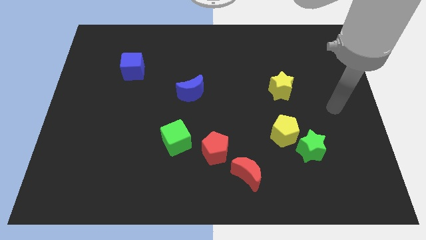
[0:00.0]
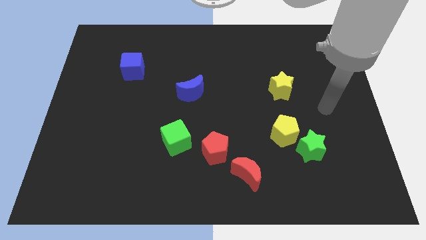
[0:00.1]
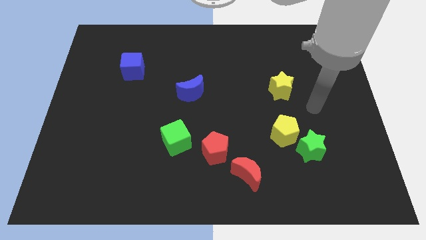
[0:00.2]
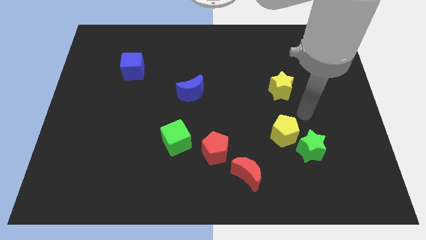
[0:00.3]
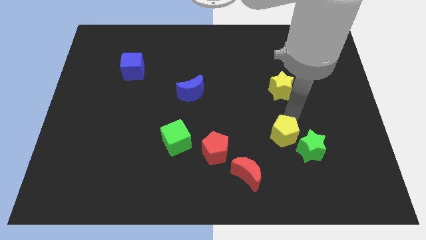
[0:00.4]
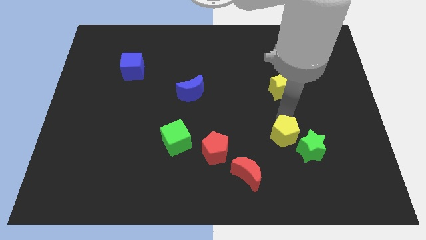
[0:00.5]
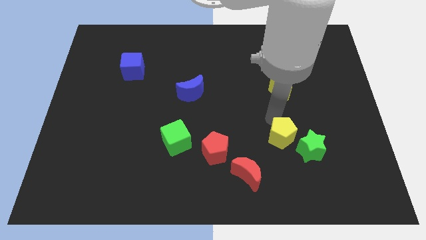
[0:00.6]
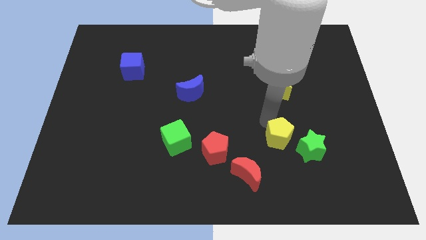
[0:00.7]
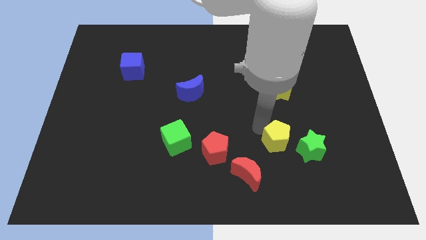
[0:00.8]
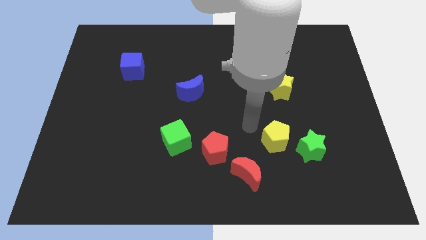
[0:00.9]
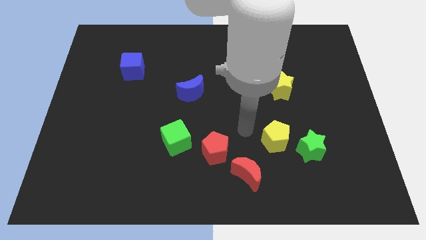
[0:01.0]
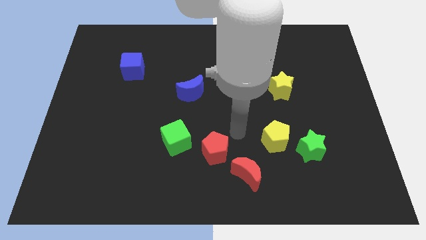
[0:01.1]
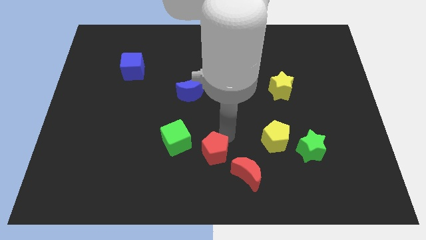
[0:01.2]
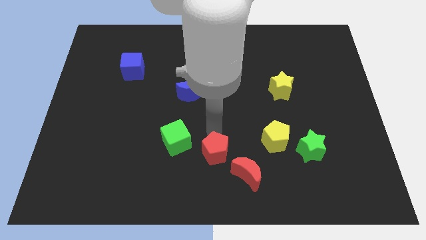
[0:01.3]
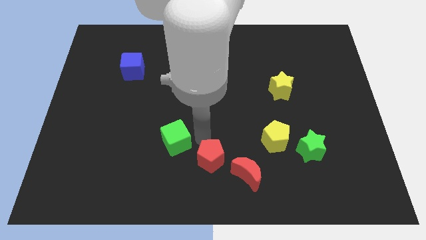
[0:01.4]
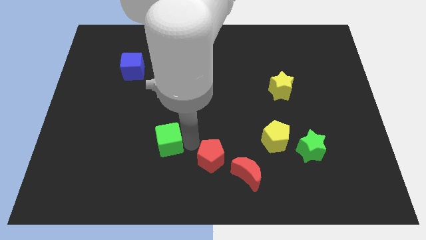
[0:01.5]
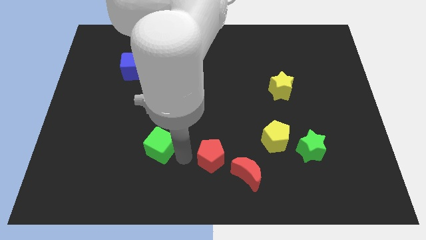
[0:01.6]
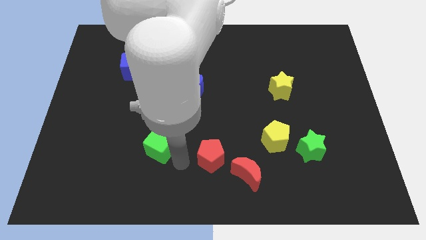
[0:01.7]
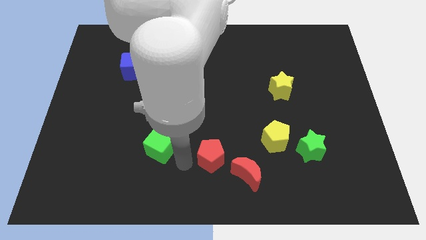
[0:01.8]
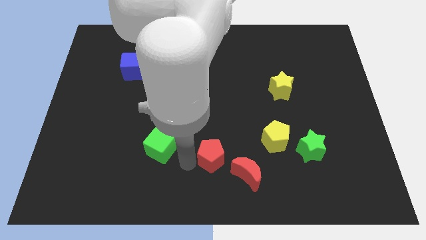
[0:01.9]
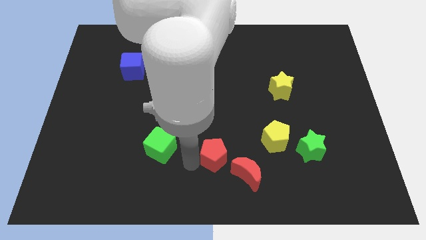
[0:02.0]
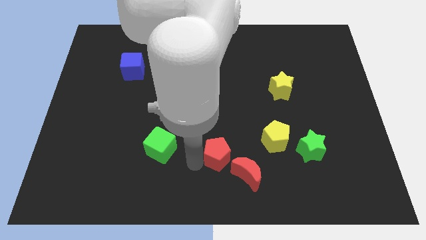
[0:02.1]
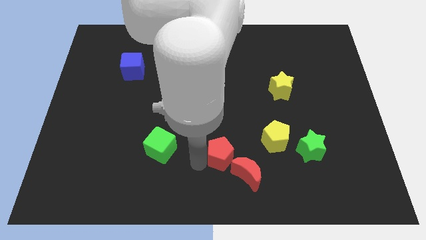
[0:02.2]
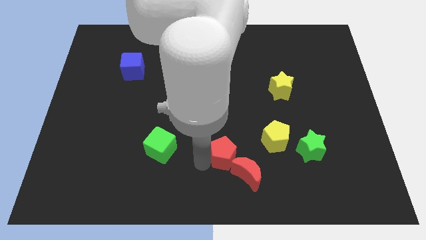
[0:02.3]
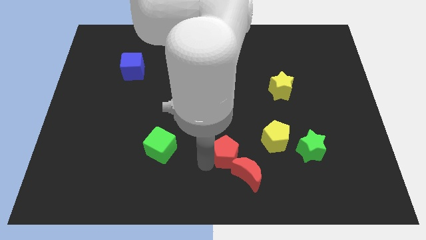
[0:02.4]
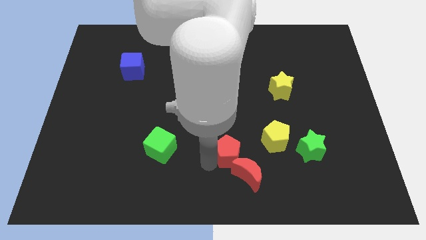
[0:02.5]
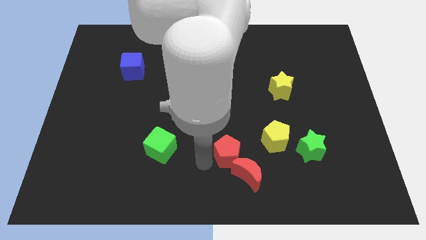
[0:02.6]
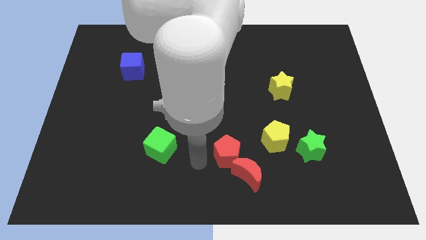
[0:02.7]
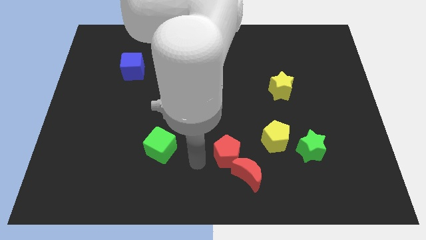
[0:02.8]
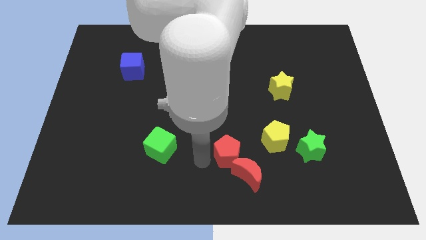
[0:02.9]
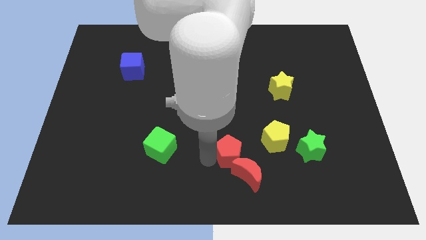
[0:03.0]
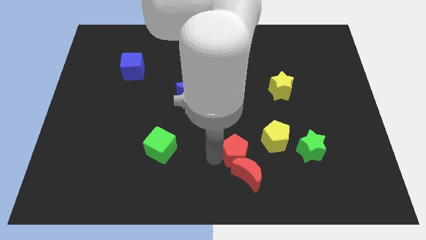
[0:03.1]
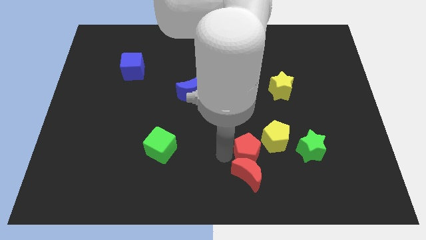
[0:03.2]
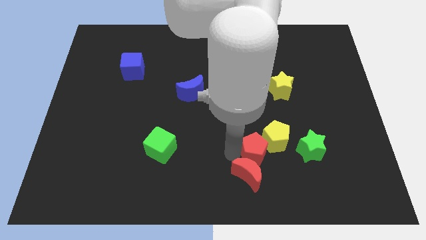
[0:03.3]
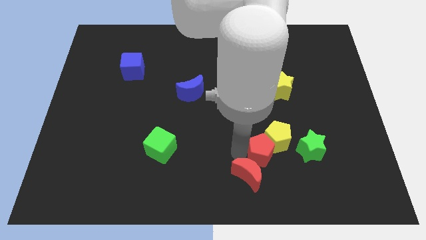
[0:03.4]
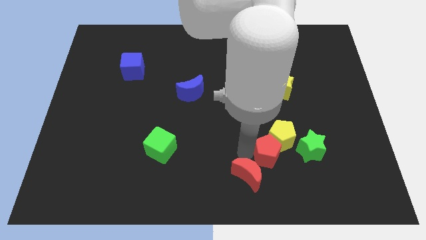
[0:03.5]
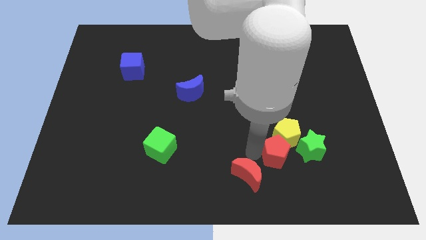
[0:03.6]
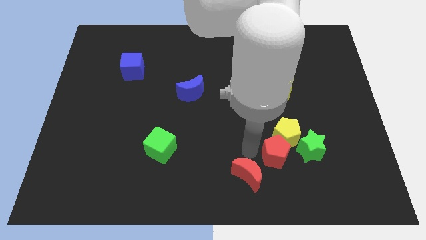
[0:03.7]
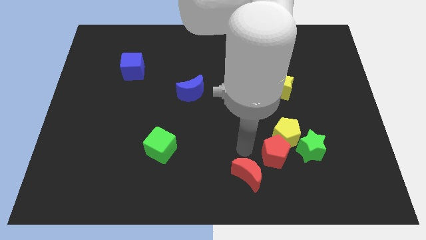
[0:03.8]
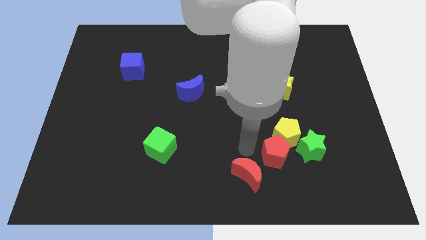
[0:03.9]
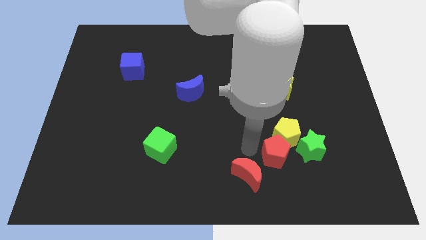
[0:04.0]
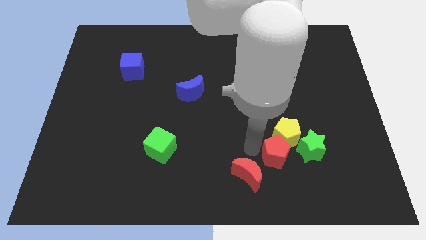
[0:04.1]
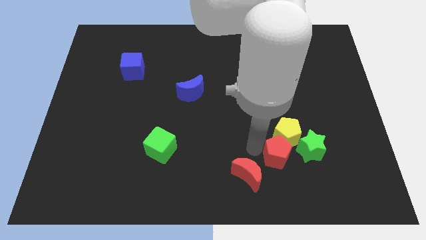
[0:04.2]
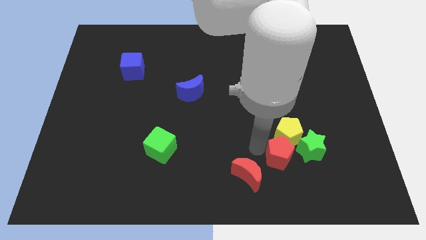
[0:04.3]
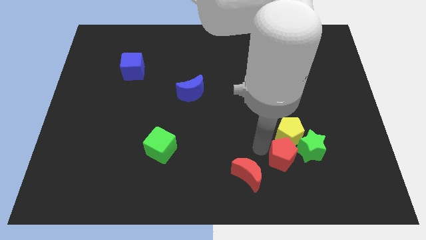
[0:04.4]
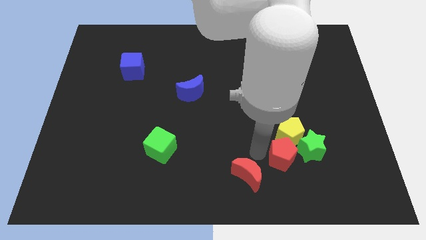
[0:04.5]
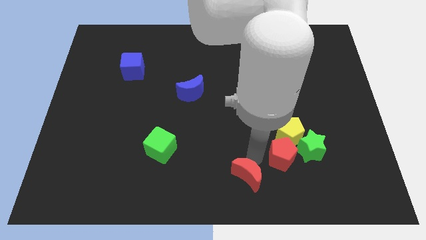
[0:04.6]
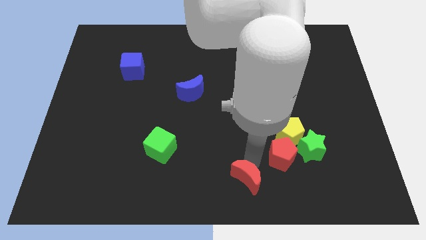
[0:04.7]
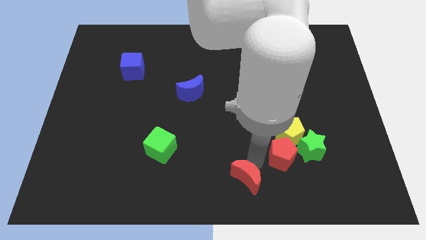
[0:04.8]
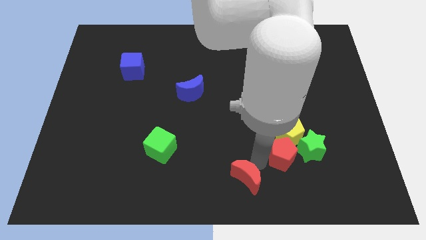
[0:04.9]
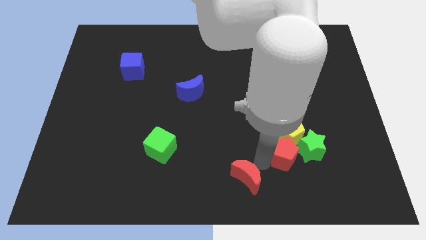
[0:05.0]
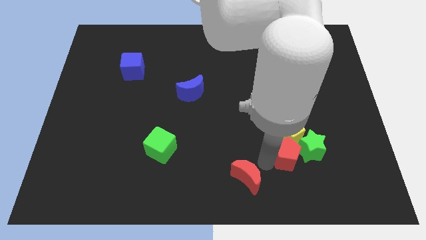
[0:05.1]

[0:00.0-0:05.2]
slide the red pentagon close to the green star

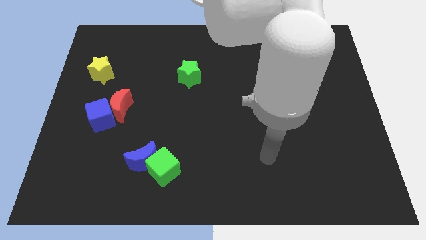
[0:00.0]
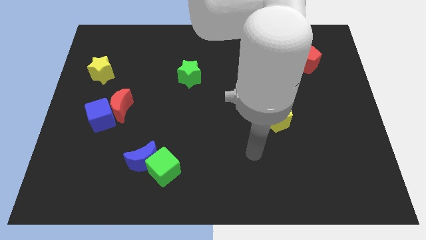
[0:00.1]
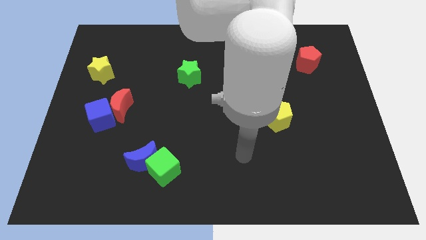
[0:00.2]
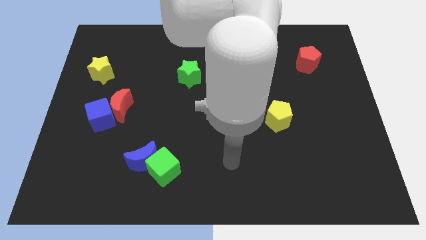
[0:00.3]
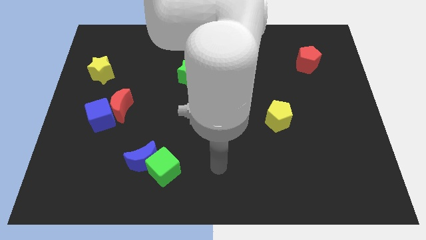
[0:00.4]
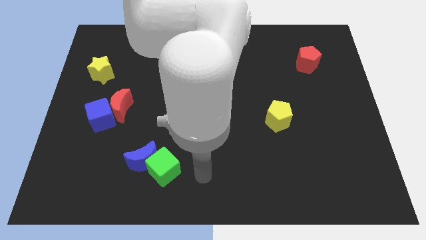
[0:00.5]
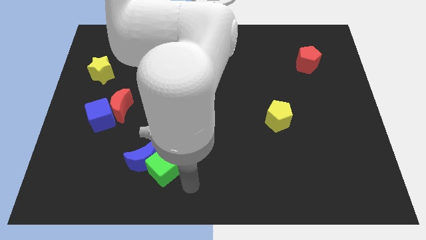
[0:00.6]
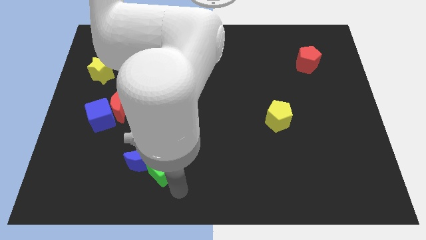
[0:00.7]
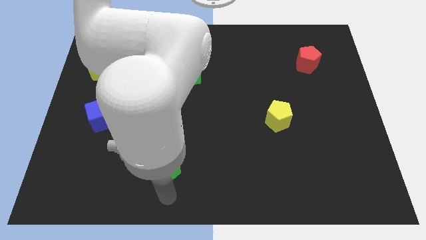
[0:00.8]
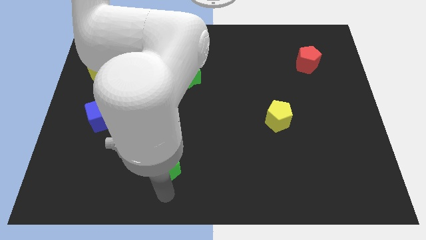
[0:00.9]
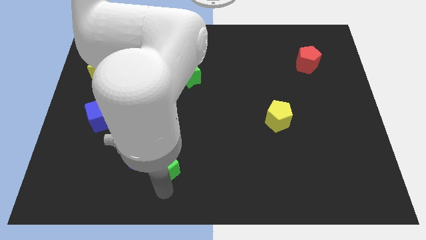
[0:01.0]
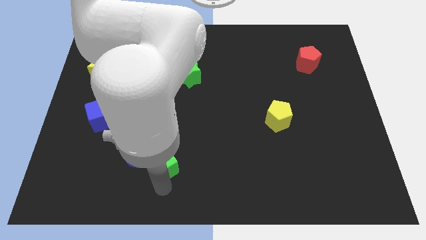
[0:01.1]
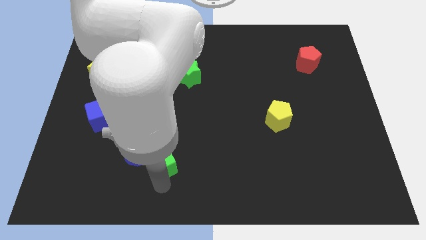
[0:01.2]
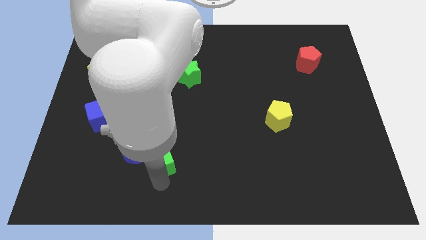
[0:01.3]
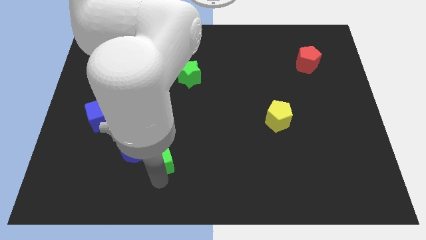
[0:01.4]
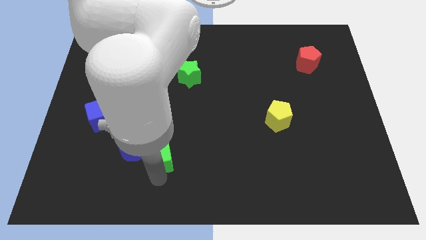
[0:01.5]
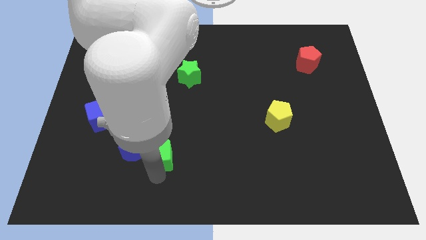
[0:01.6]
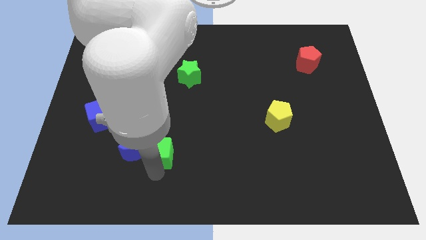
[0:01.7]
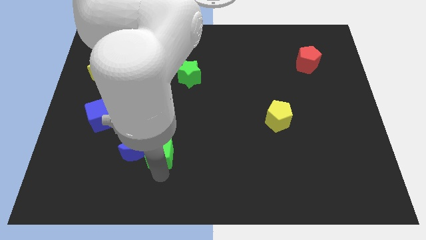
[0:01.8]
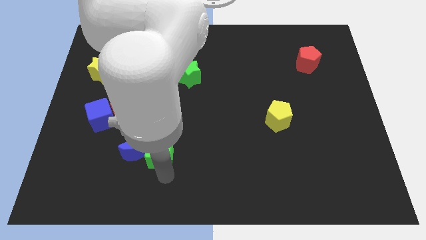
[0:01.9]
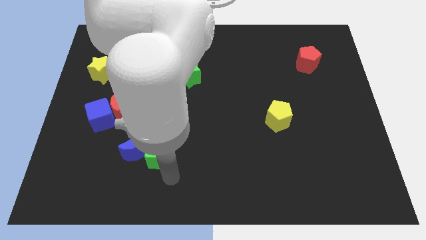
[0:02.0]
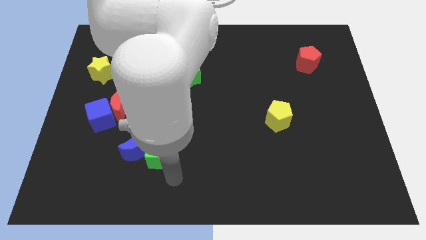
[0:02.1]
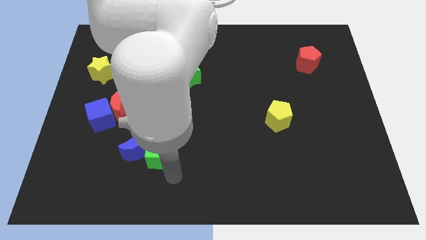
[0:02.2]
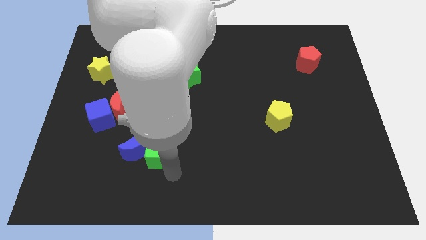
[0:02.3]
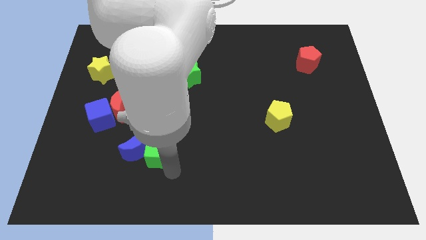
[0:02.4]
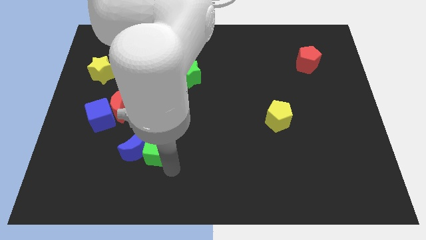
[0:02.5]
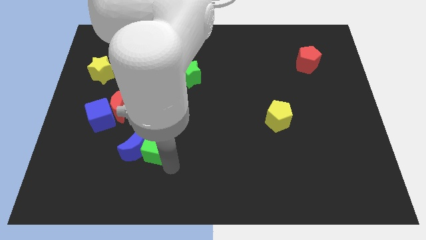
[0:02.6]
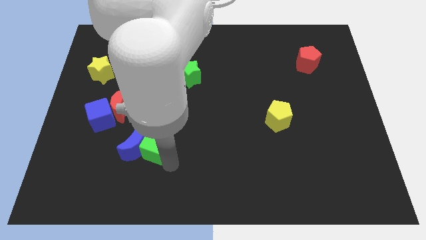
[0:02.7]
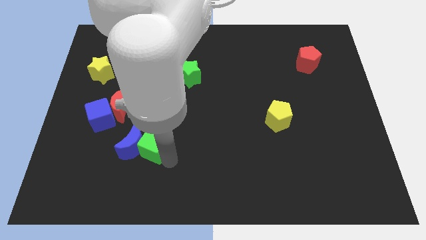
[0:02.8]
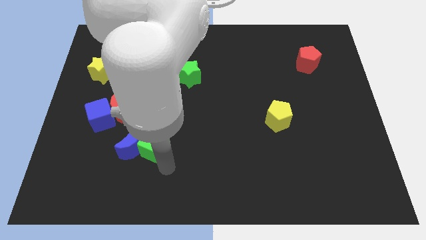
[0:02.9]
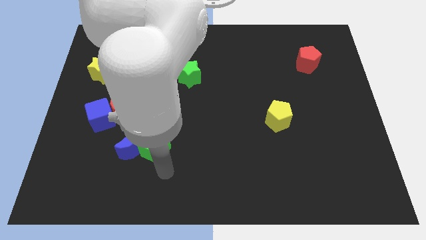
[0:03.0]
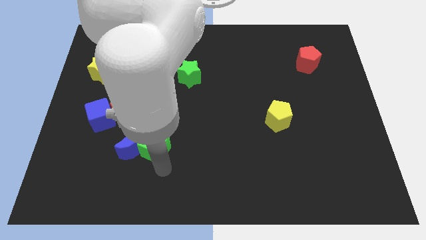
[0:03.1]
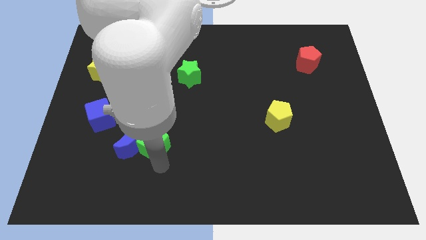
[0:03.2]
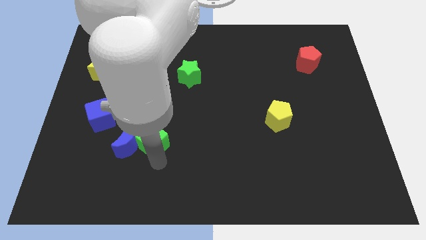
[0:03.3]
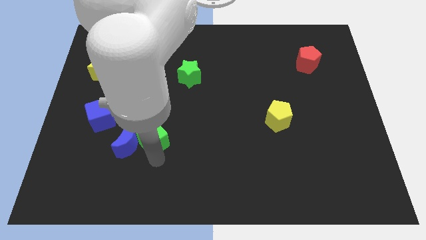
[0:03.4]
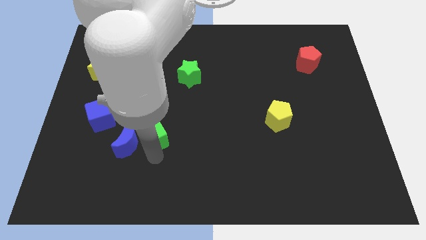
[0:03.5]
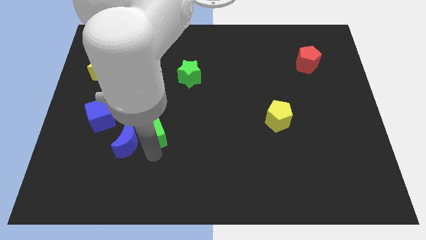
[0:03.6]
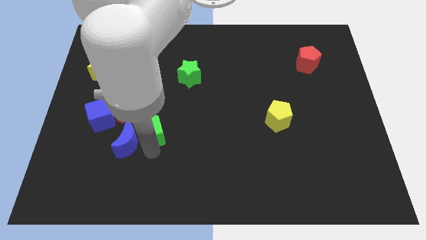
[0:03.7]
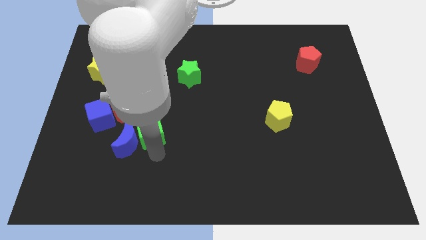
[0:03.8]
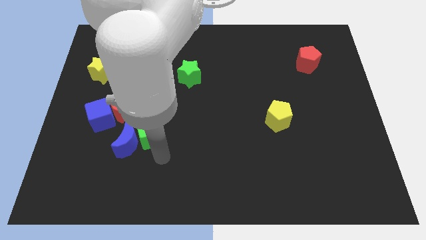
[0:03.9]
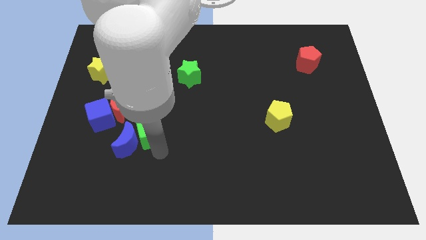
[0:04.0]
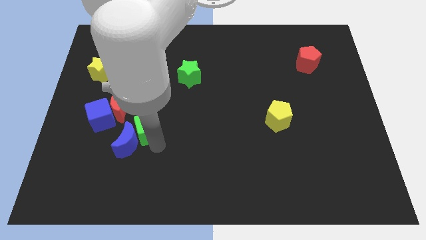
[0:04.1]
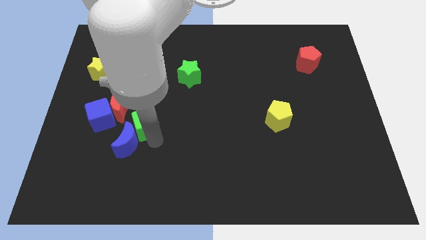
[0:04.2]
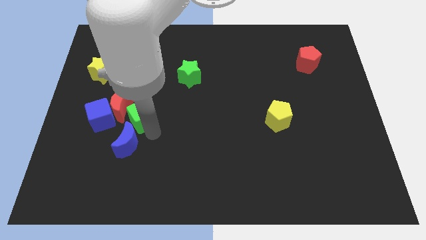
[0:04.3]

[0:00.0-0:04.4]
put the green cube to the red moon
